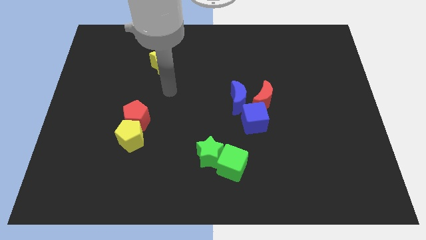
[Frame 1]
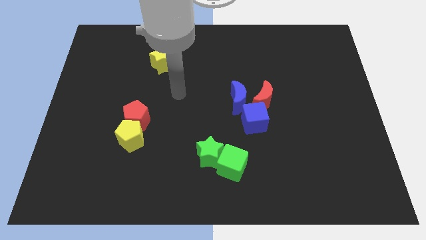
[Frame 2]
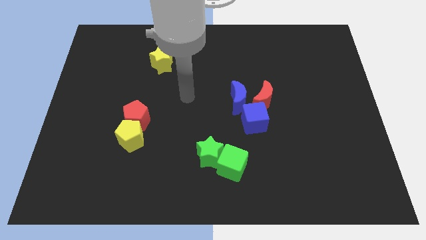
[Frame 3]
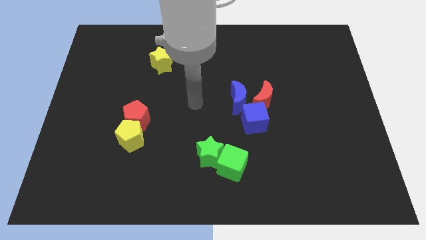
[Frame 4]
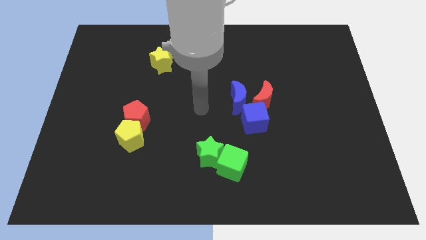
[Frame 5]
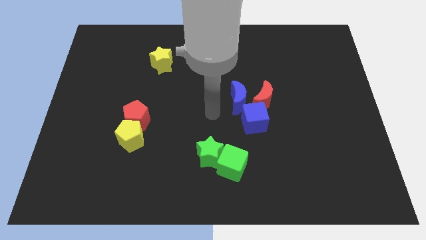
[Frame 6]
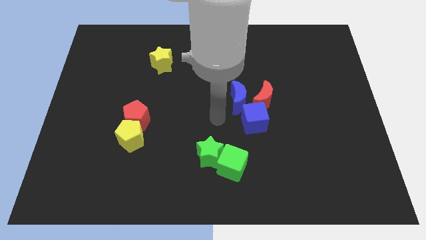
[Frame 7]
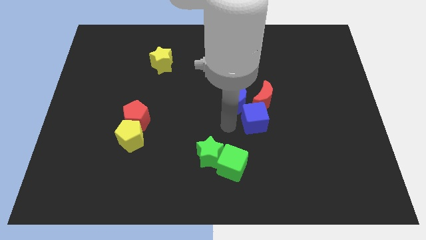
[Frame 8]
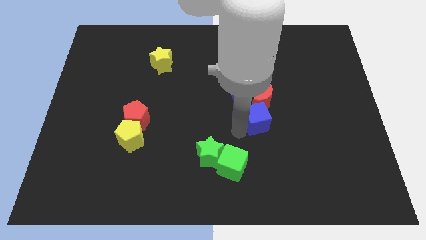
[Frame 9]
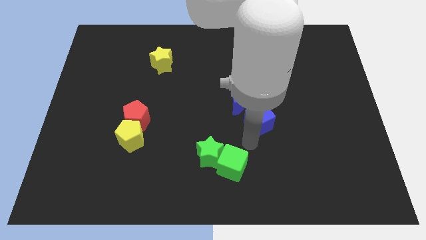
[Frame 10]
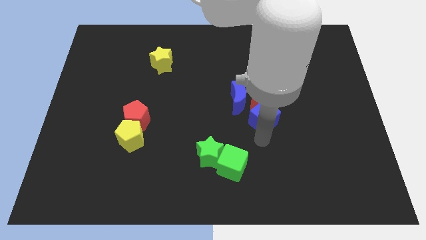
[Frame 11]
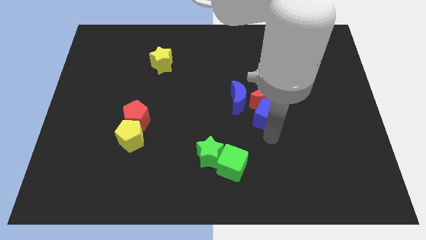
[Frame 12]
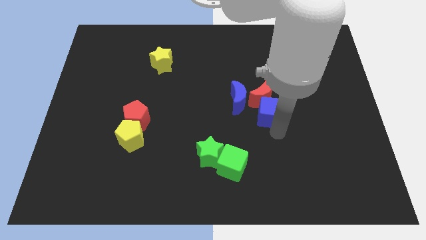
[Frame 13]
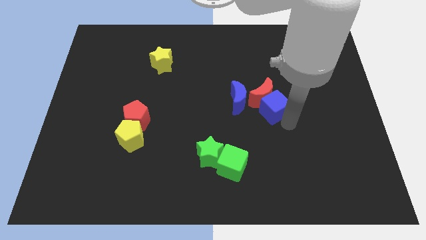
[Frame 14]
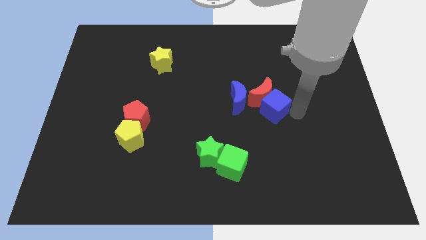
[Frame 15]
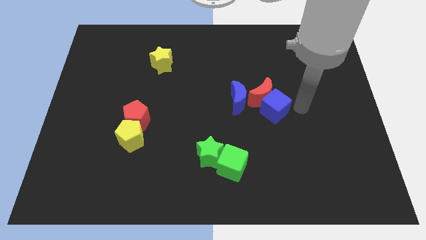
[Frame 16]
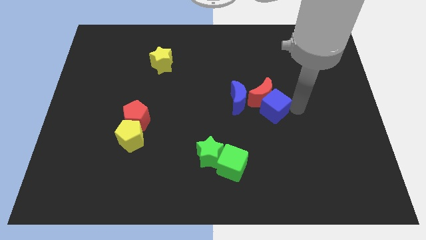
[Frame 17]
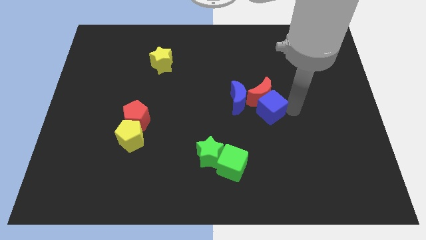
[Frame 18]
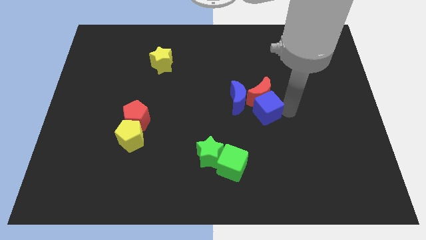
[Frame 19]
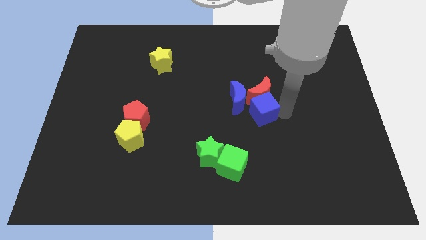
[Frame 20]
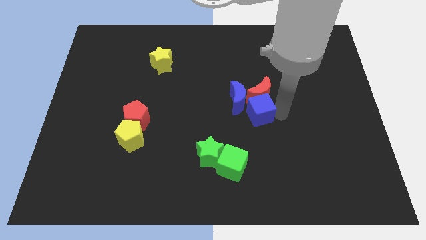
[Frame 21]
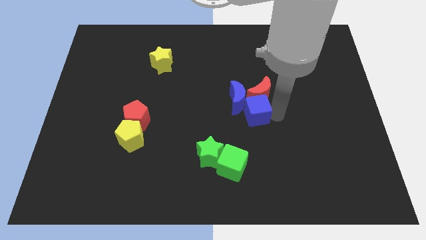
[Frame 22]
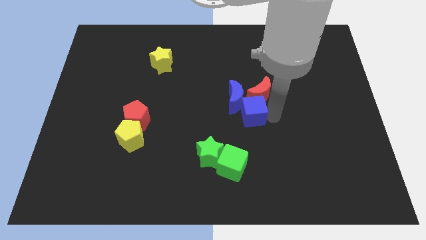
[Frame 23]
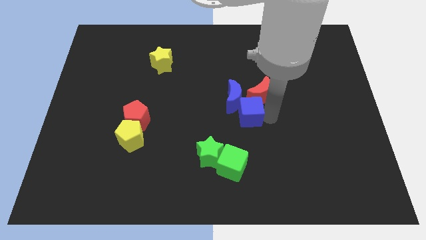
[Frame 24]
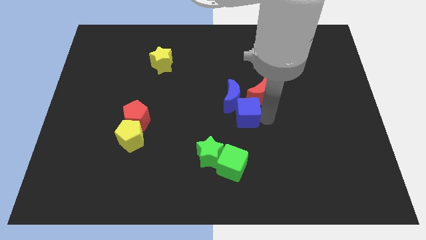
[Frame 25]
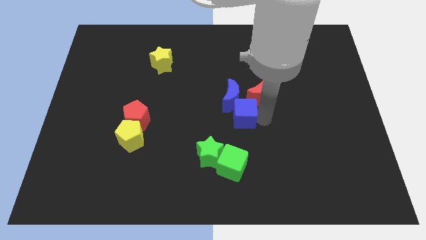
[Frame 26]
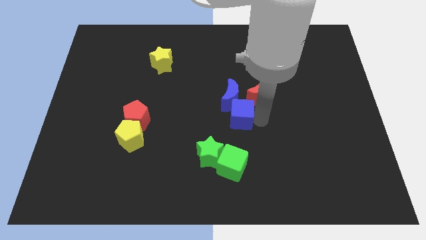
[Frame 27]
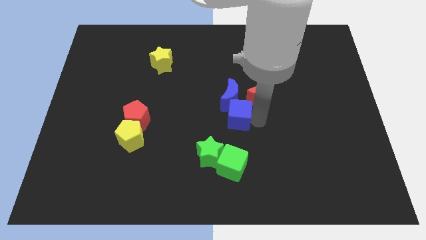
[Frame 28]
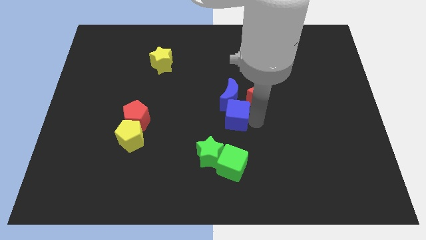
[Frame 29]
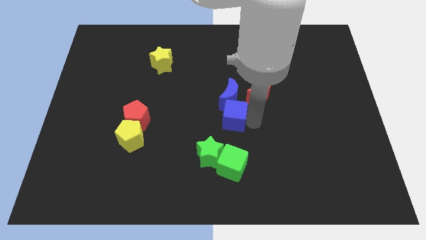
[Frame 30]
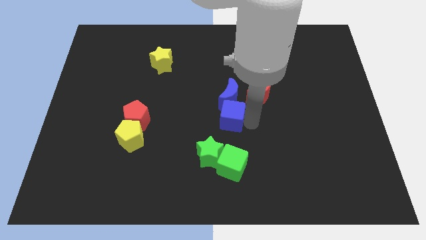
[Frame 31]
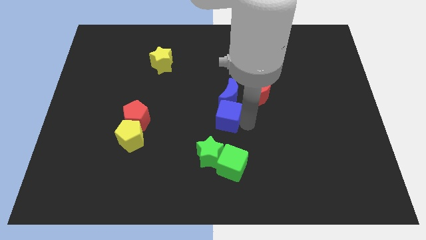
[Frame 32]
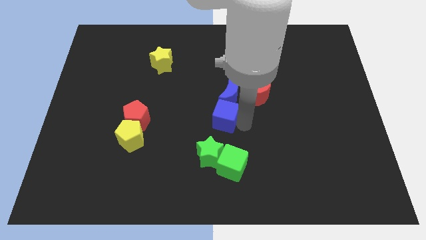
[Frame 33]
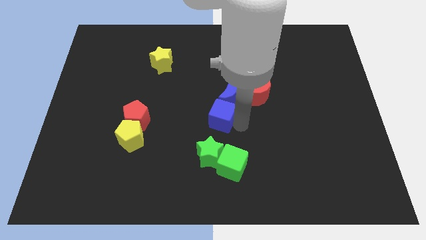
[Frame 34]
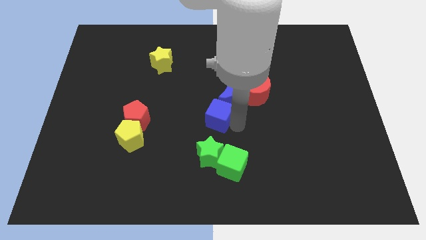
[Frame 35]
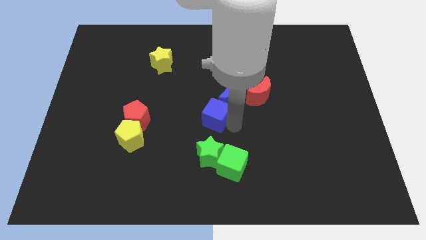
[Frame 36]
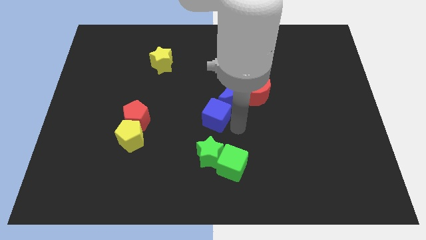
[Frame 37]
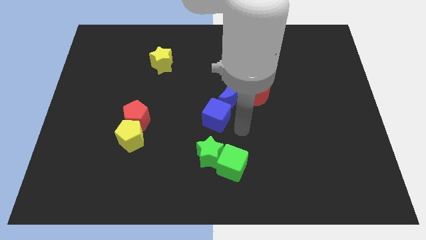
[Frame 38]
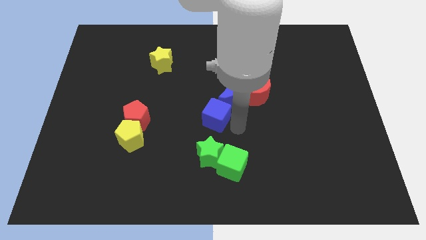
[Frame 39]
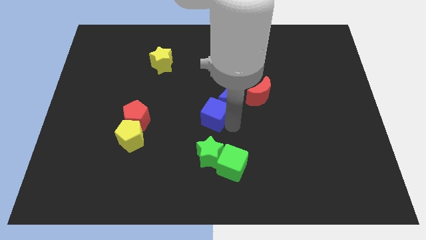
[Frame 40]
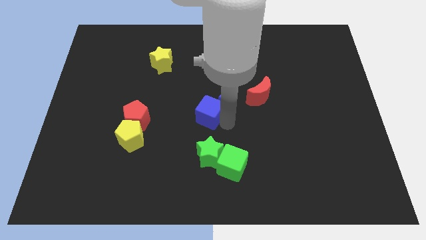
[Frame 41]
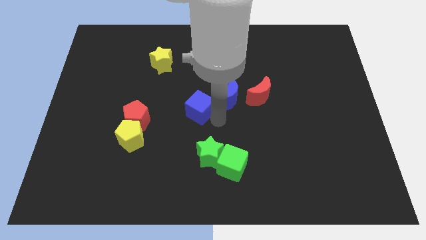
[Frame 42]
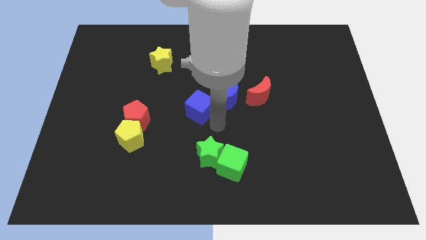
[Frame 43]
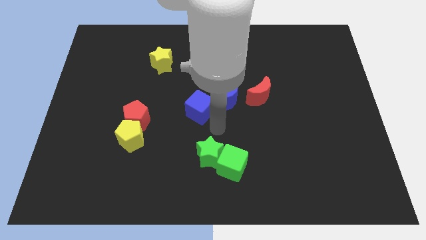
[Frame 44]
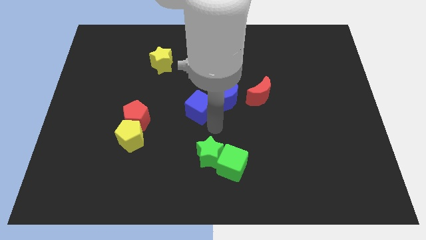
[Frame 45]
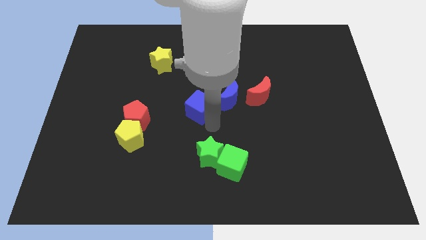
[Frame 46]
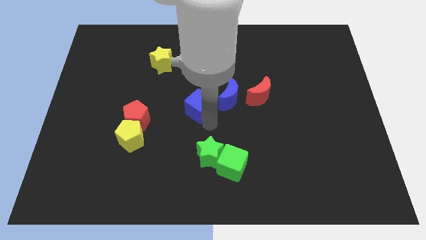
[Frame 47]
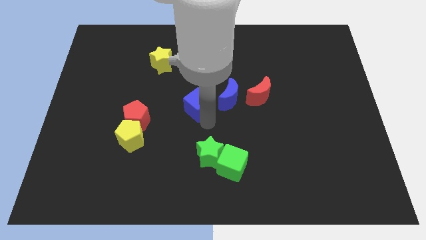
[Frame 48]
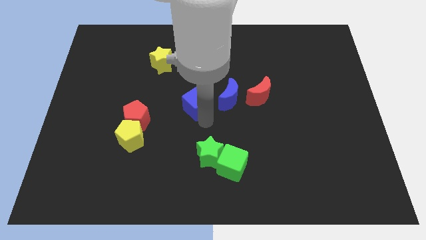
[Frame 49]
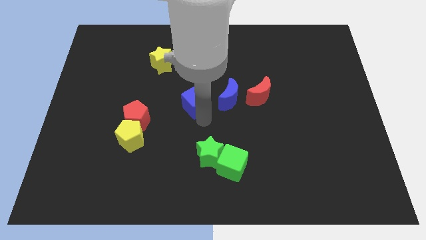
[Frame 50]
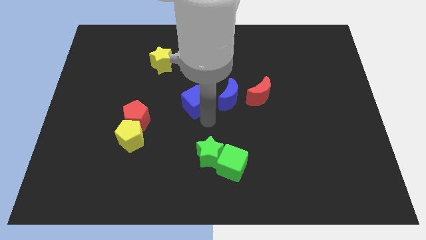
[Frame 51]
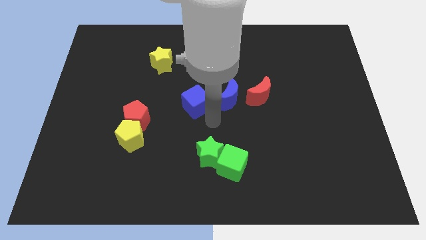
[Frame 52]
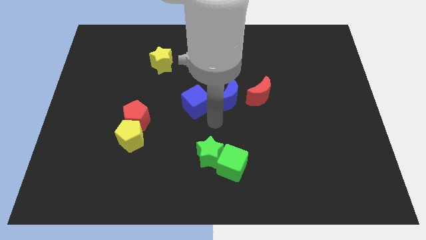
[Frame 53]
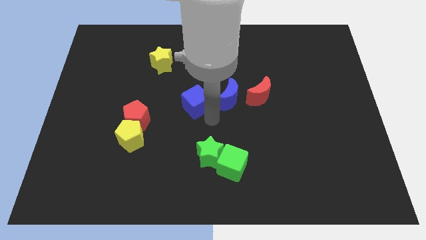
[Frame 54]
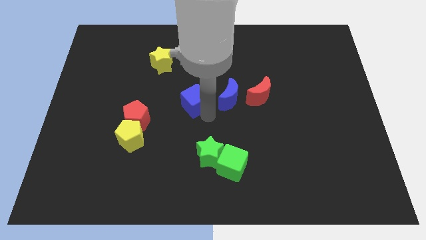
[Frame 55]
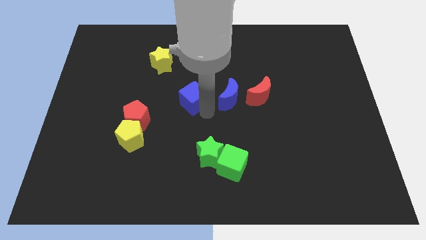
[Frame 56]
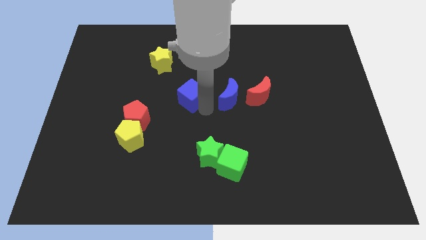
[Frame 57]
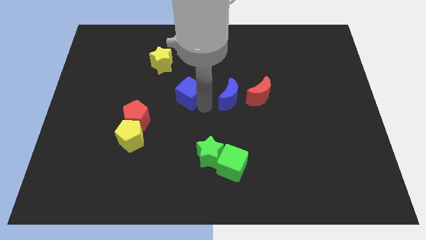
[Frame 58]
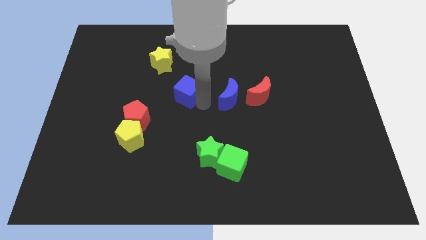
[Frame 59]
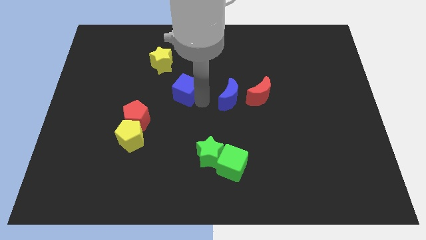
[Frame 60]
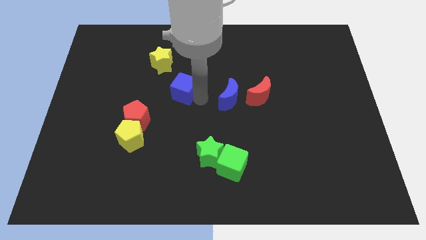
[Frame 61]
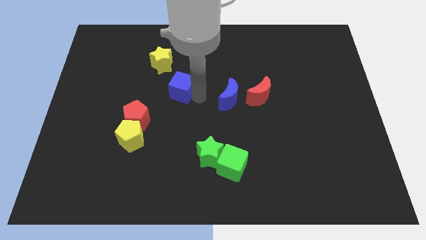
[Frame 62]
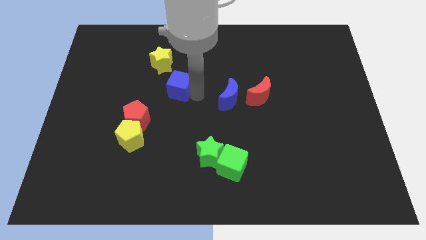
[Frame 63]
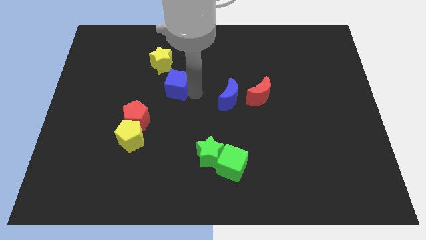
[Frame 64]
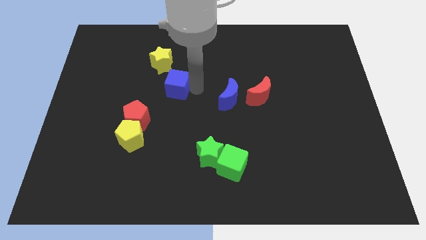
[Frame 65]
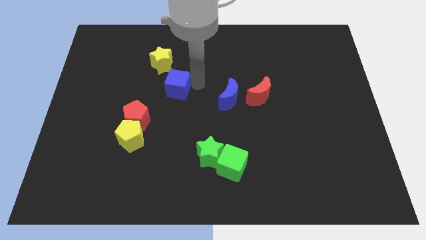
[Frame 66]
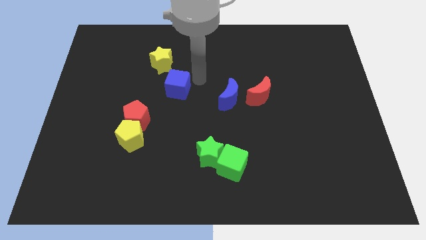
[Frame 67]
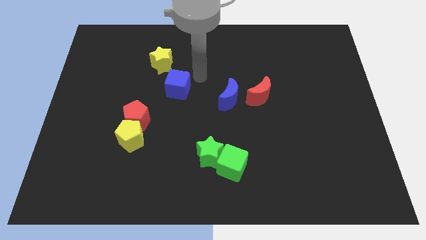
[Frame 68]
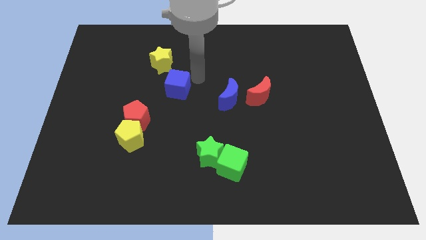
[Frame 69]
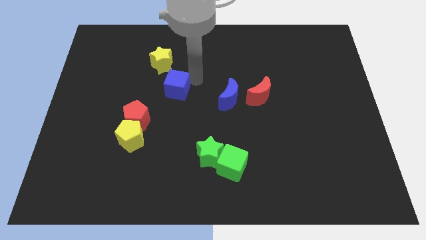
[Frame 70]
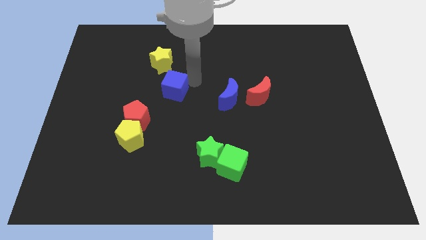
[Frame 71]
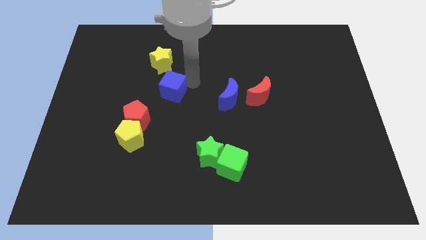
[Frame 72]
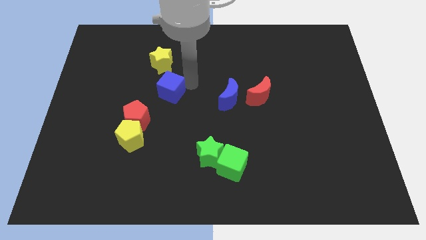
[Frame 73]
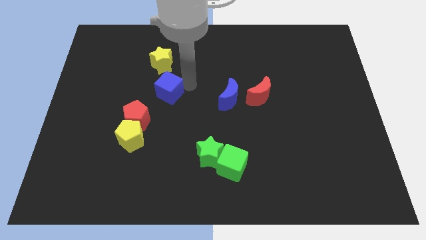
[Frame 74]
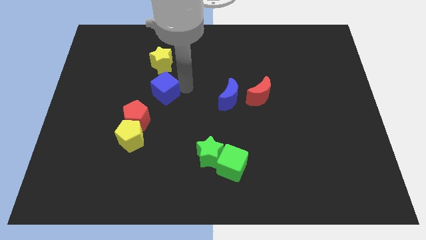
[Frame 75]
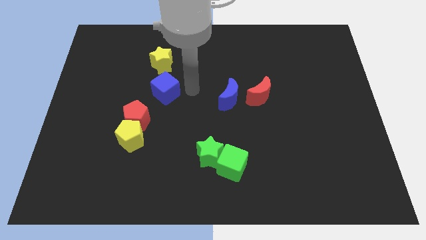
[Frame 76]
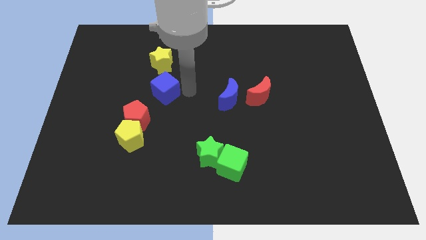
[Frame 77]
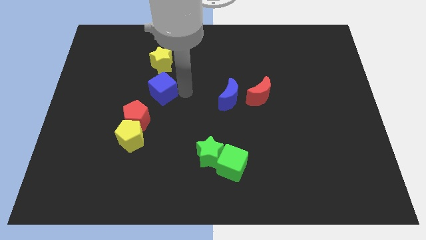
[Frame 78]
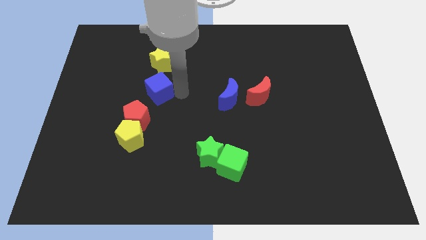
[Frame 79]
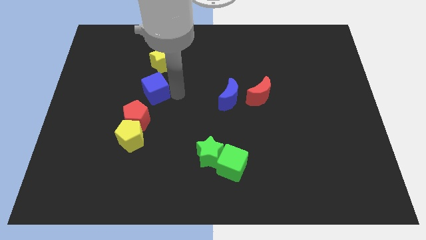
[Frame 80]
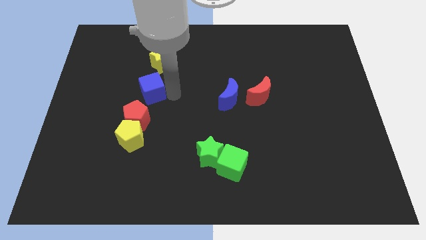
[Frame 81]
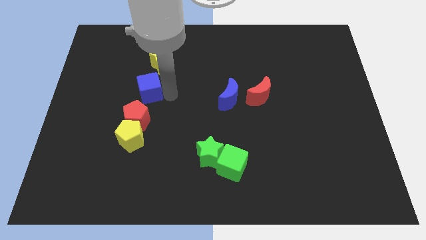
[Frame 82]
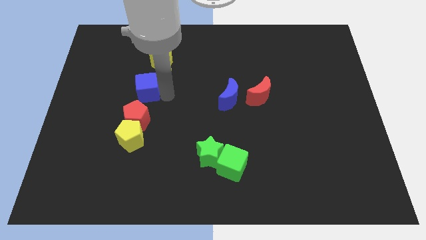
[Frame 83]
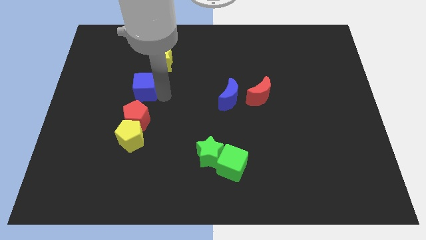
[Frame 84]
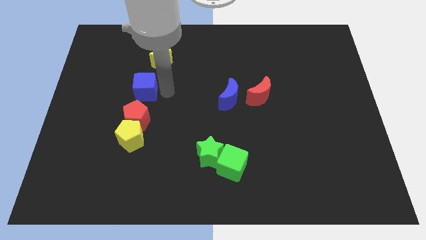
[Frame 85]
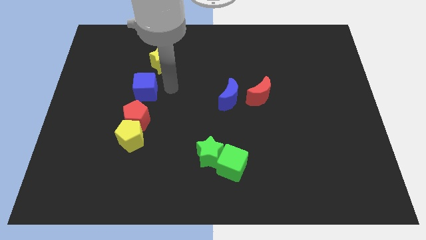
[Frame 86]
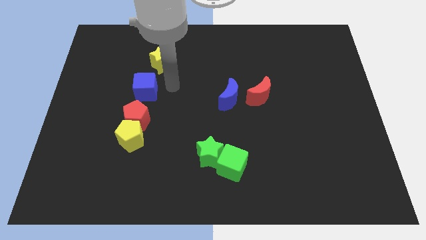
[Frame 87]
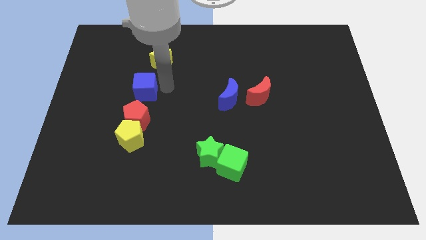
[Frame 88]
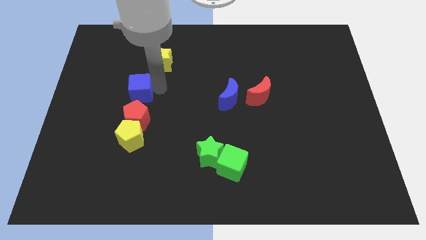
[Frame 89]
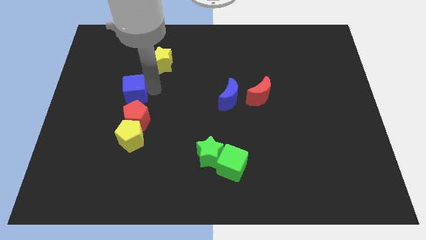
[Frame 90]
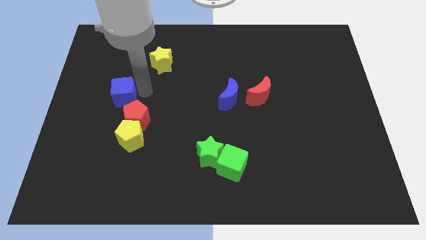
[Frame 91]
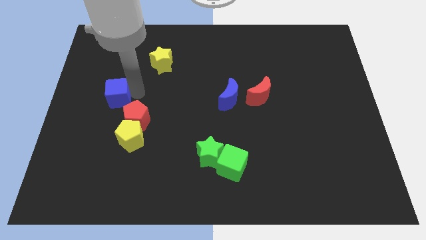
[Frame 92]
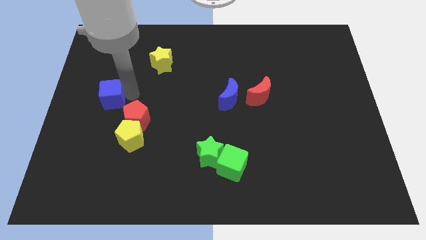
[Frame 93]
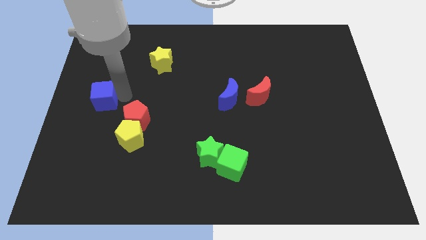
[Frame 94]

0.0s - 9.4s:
push the blue cube to the left side of the board
